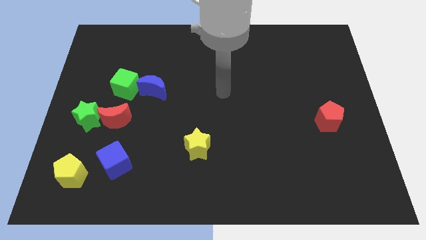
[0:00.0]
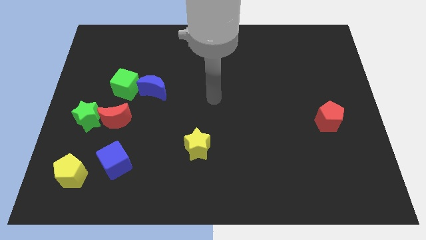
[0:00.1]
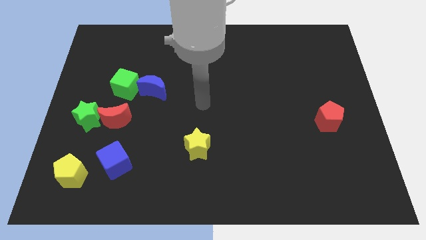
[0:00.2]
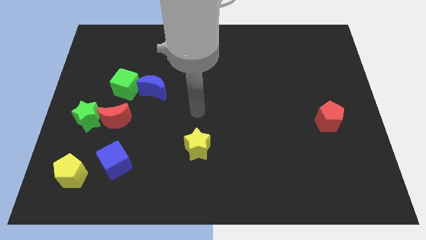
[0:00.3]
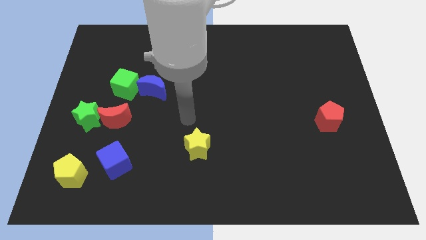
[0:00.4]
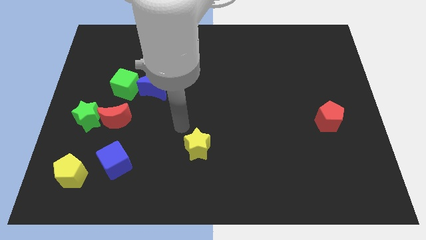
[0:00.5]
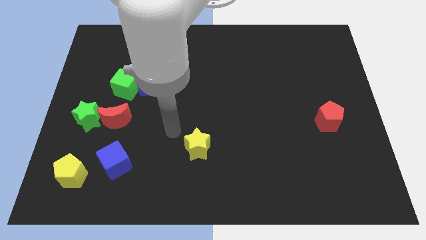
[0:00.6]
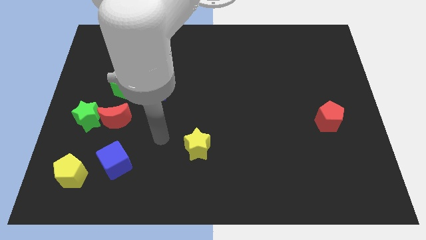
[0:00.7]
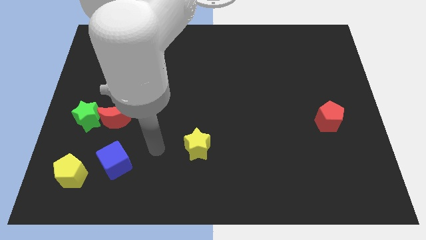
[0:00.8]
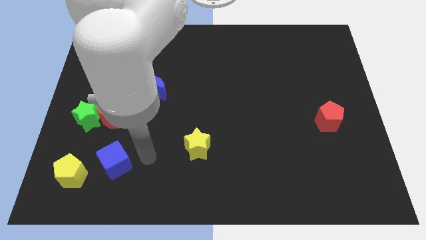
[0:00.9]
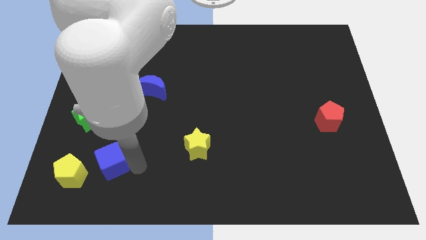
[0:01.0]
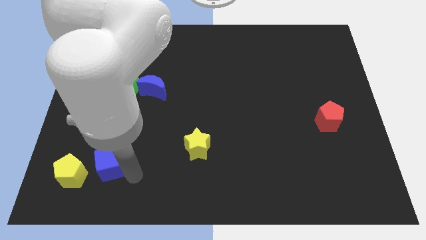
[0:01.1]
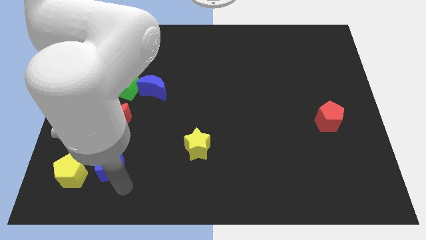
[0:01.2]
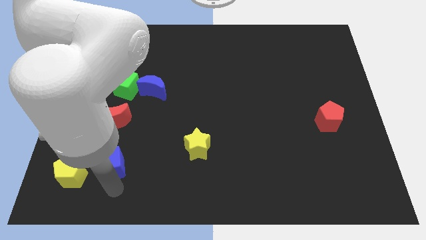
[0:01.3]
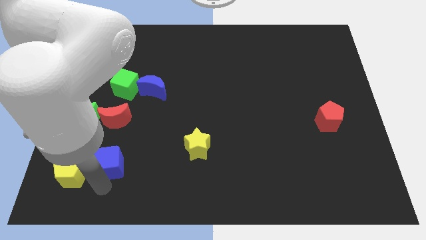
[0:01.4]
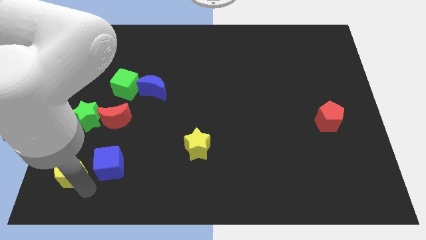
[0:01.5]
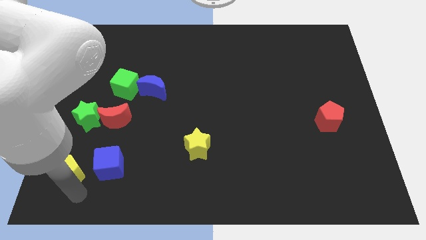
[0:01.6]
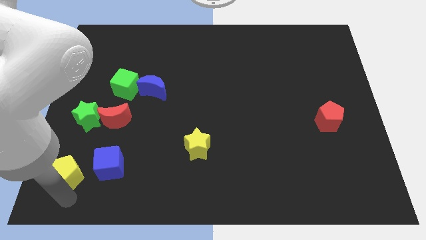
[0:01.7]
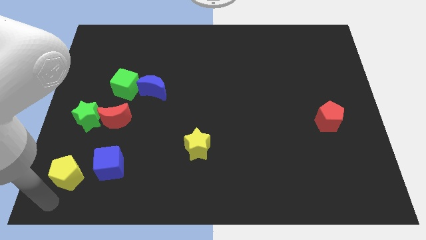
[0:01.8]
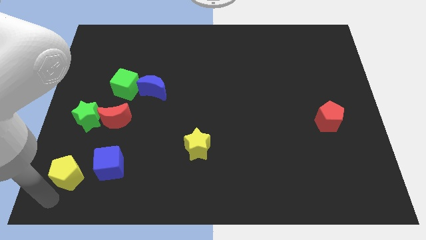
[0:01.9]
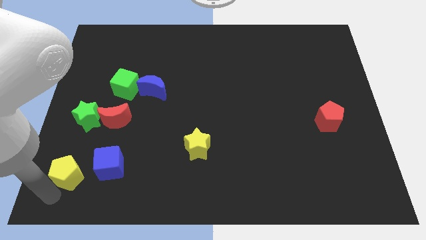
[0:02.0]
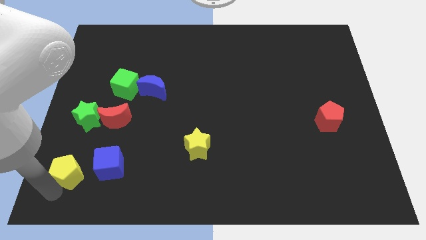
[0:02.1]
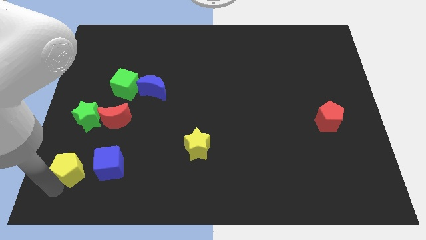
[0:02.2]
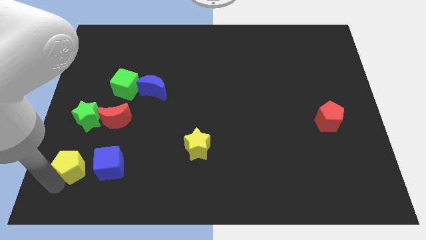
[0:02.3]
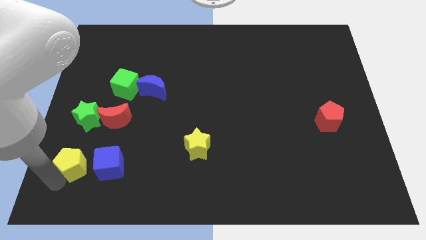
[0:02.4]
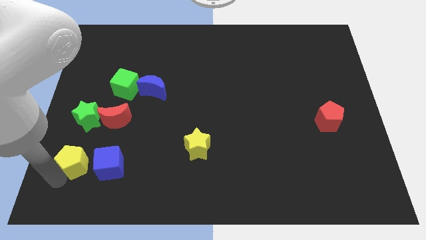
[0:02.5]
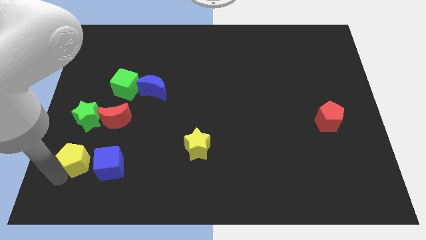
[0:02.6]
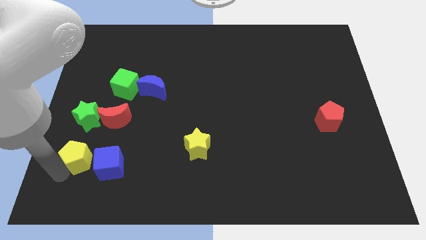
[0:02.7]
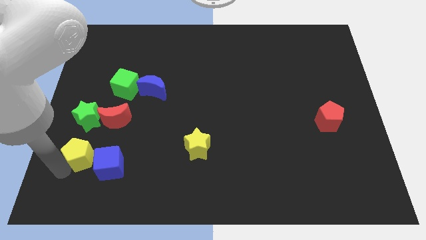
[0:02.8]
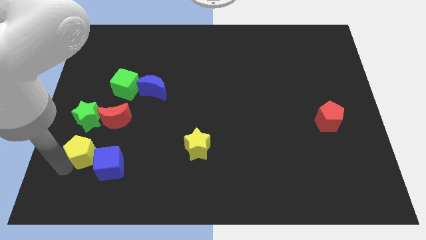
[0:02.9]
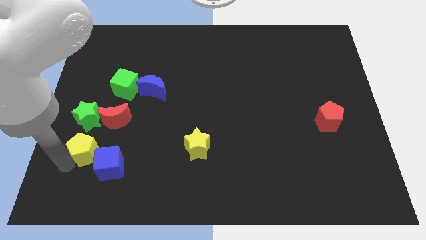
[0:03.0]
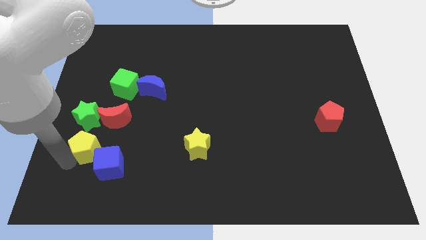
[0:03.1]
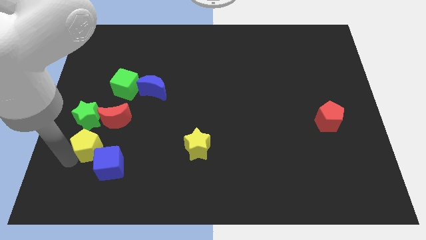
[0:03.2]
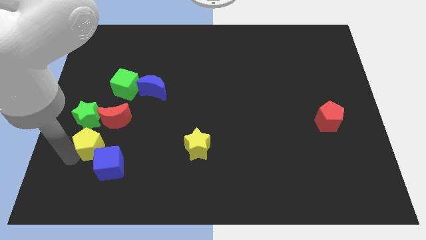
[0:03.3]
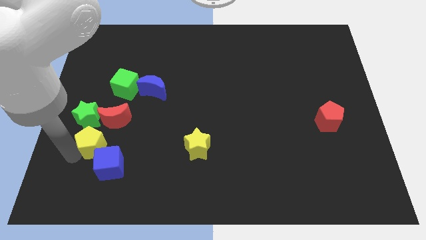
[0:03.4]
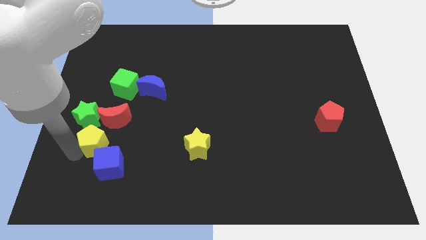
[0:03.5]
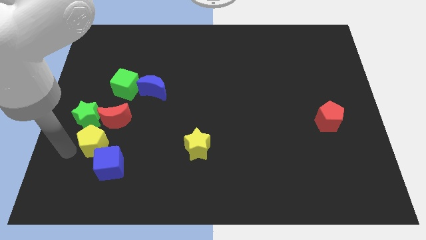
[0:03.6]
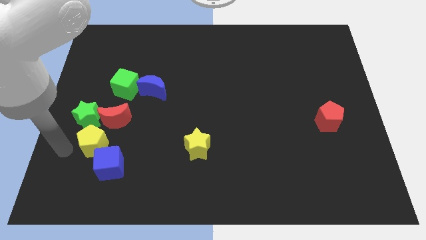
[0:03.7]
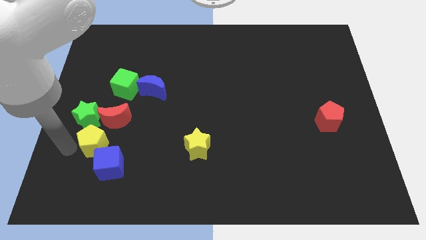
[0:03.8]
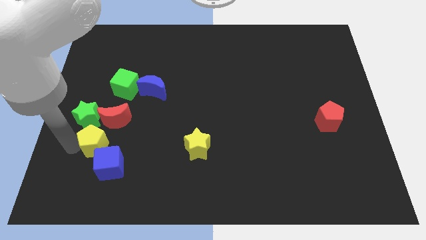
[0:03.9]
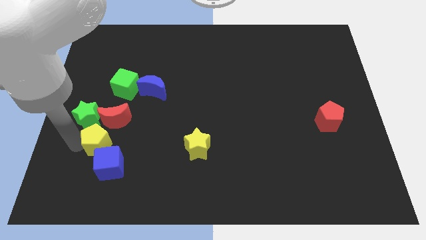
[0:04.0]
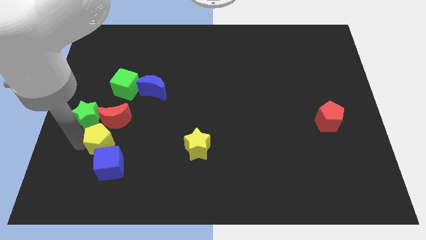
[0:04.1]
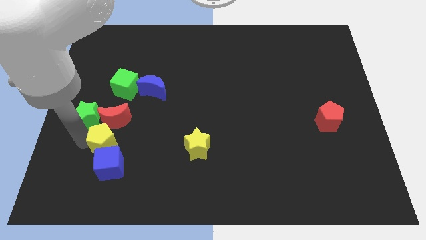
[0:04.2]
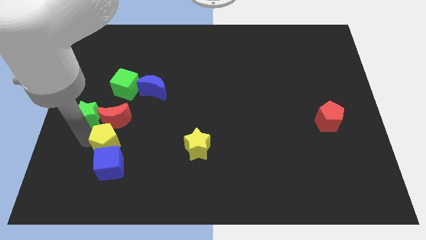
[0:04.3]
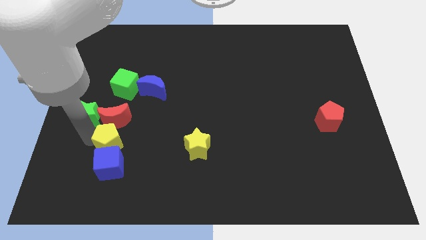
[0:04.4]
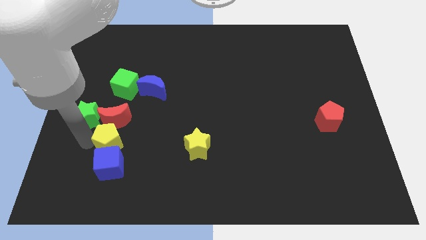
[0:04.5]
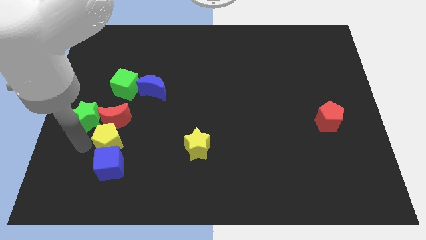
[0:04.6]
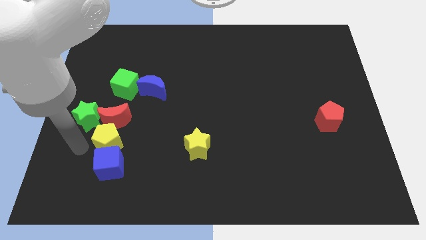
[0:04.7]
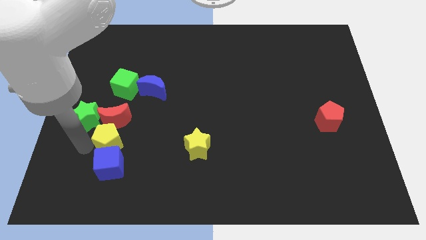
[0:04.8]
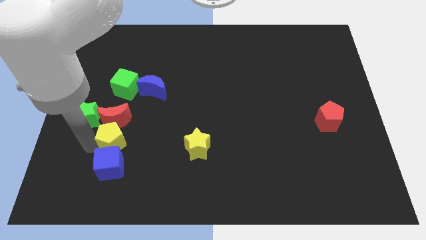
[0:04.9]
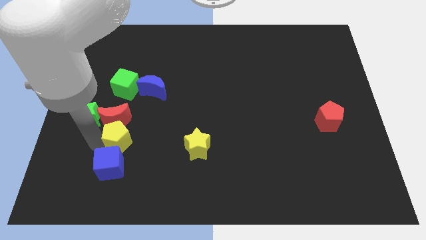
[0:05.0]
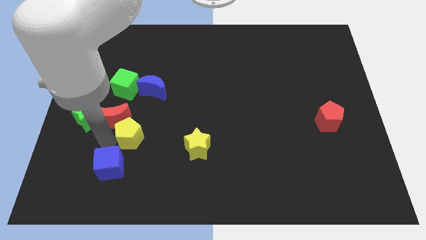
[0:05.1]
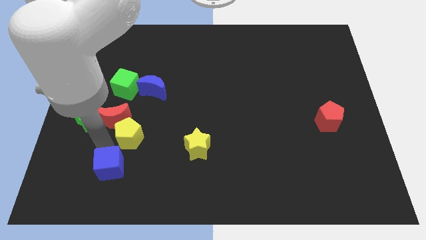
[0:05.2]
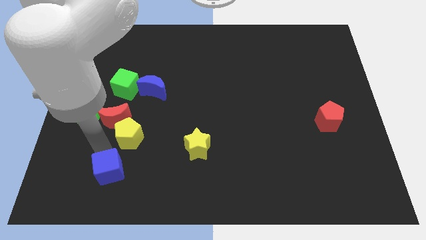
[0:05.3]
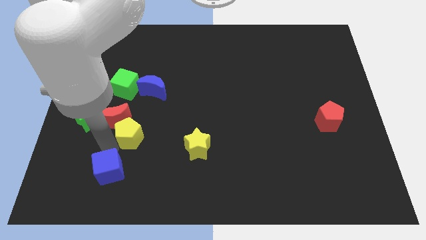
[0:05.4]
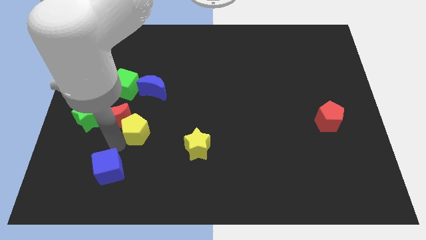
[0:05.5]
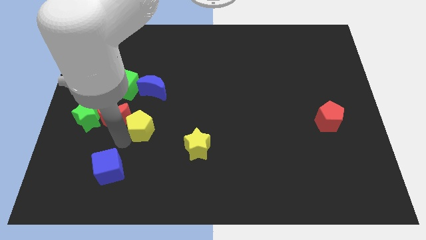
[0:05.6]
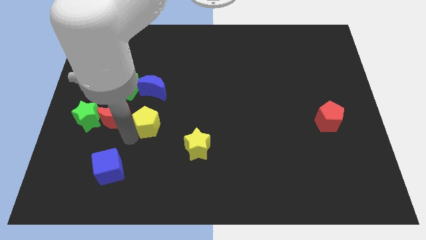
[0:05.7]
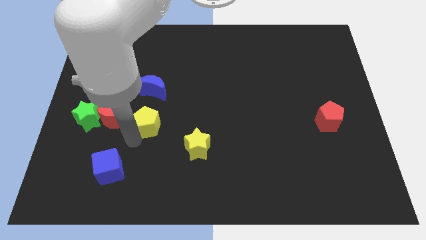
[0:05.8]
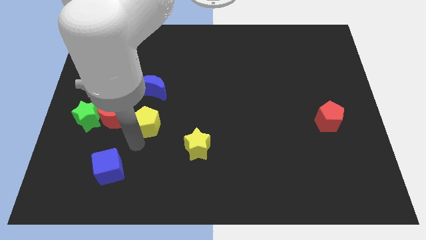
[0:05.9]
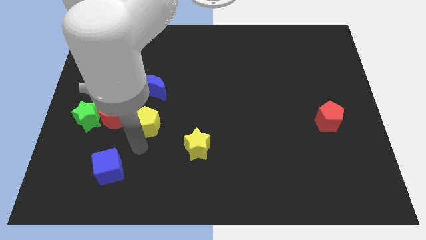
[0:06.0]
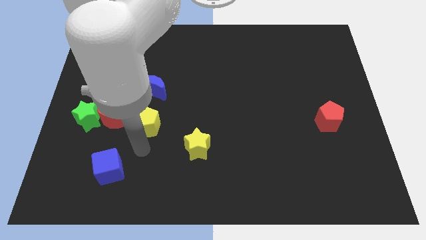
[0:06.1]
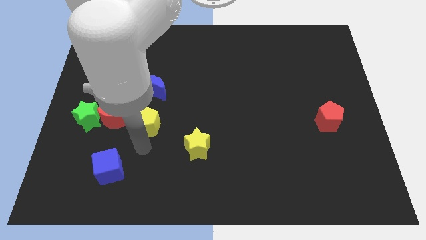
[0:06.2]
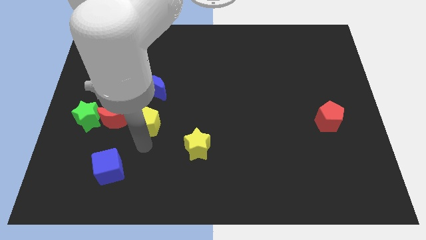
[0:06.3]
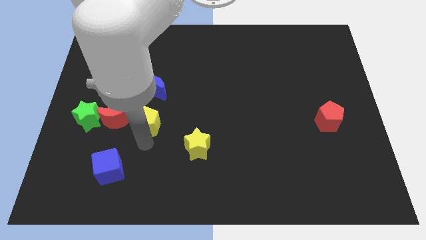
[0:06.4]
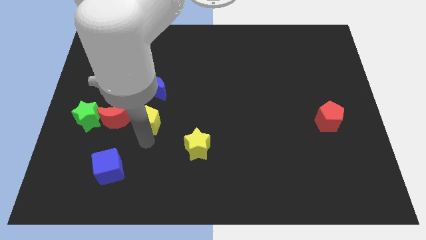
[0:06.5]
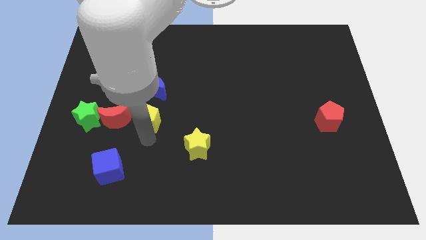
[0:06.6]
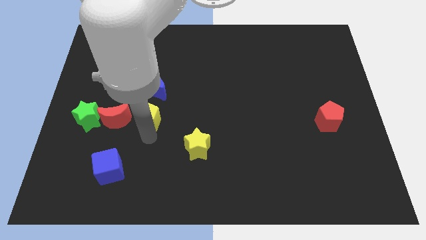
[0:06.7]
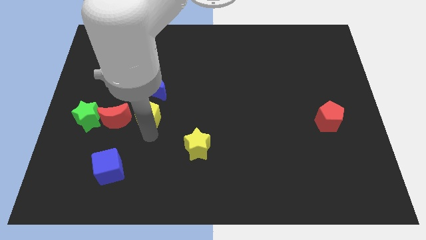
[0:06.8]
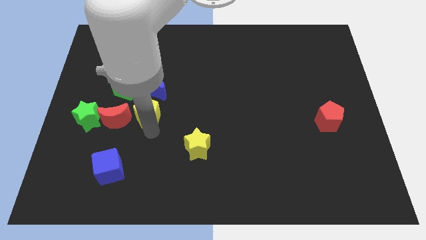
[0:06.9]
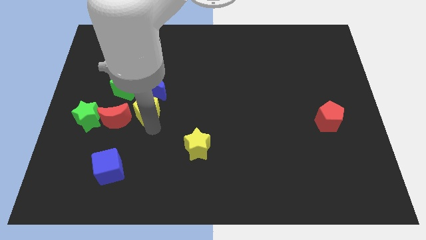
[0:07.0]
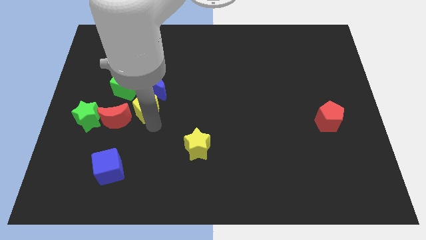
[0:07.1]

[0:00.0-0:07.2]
slide the yellow pentagon next to the blue moon
